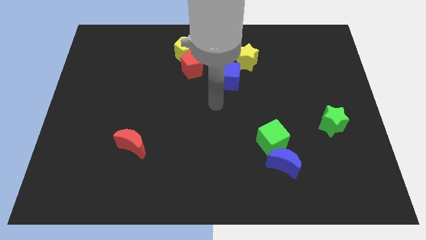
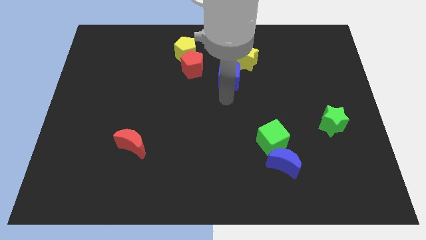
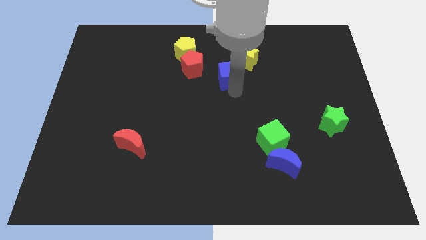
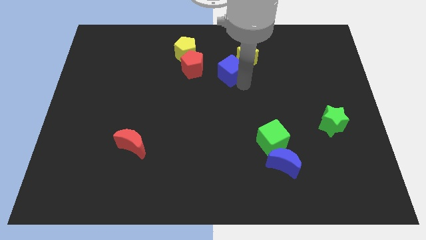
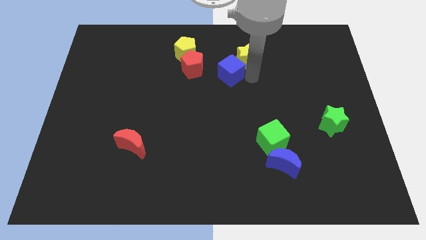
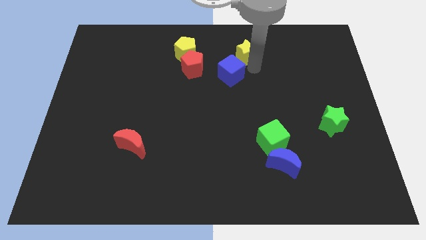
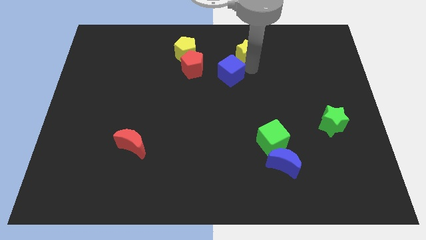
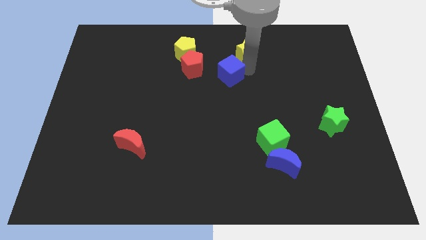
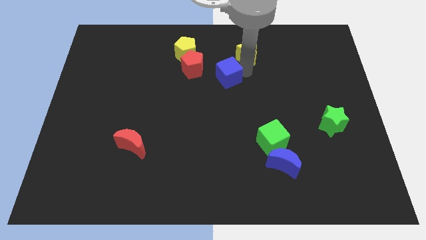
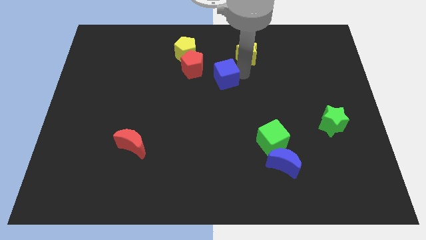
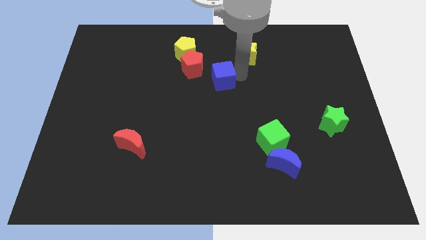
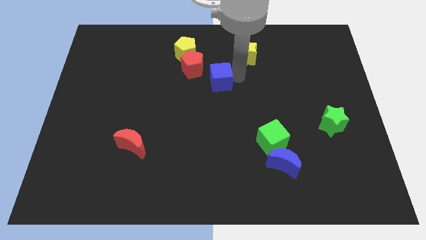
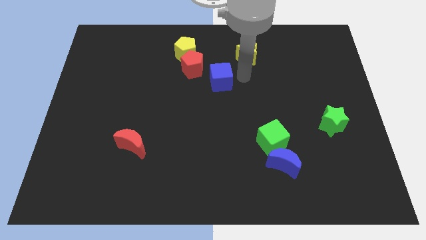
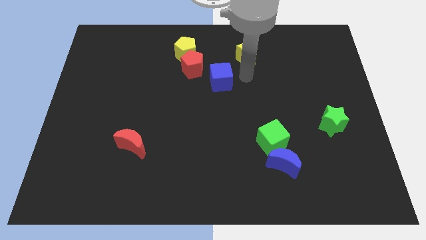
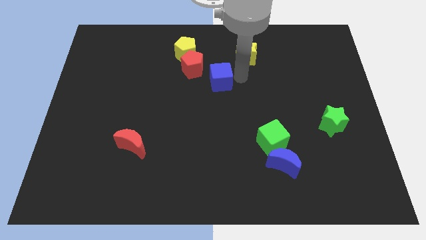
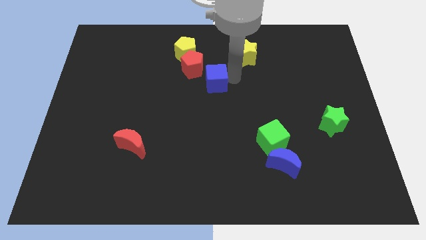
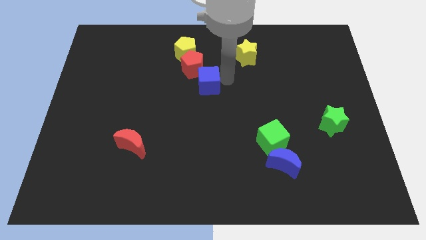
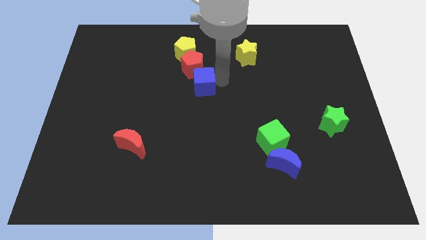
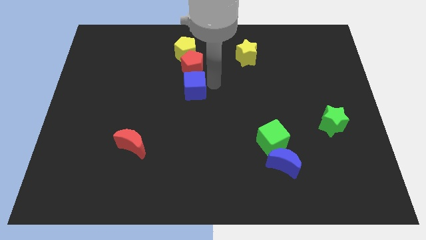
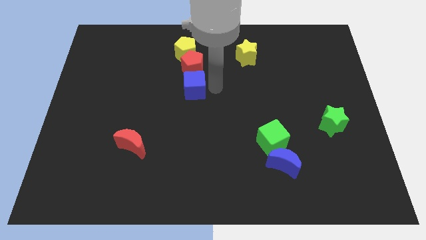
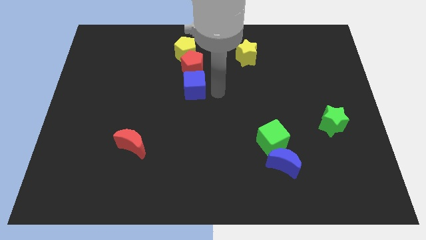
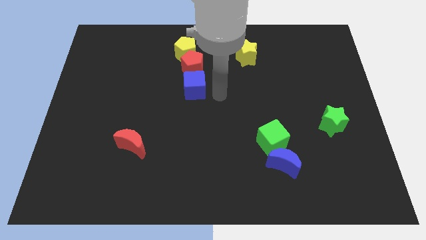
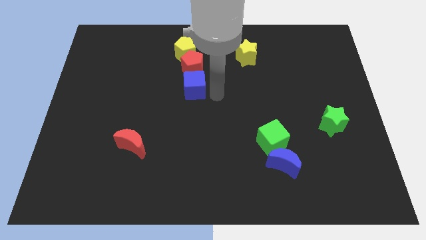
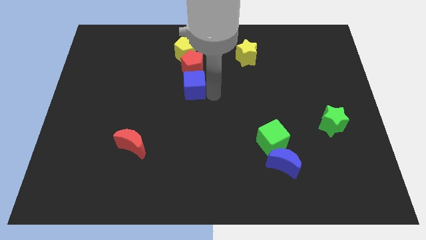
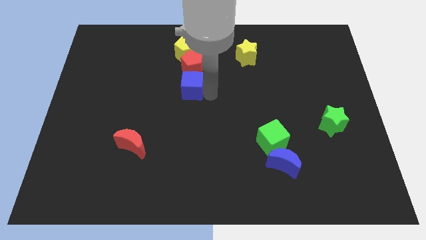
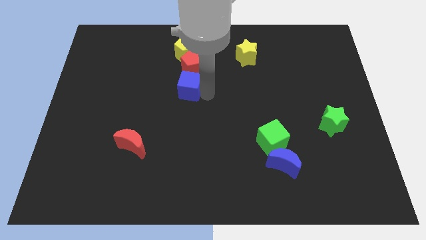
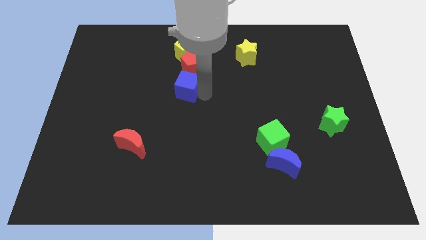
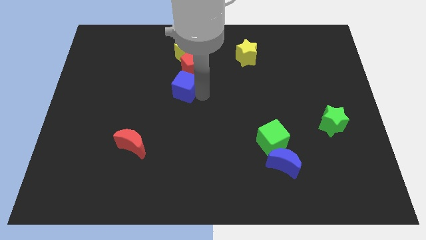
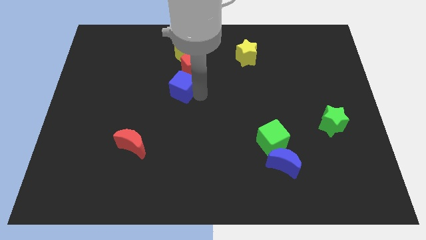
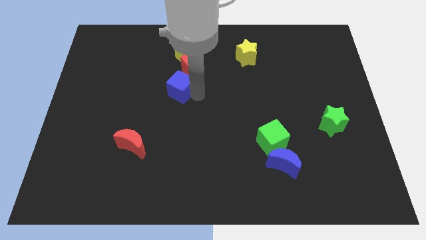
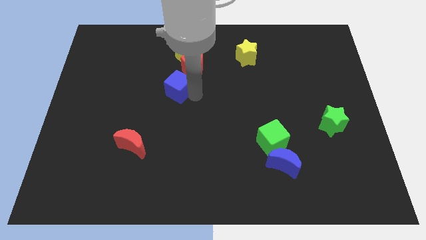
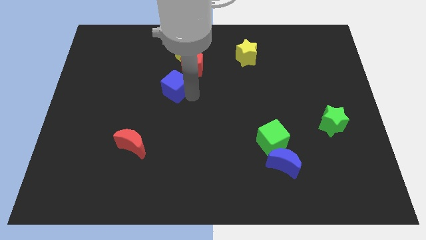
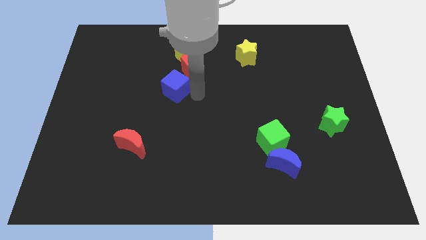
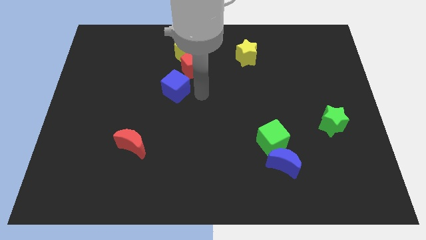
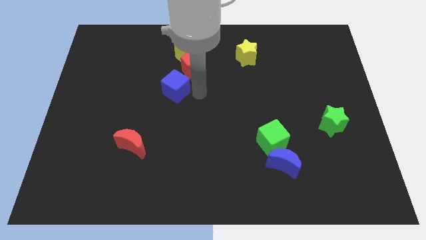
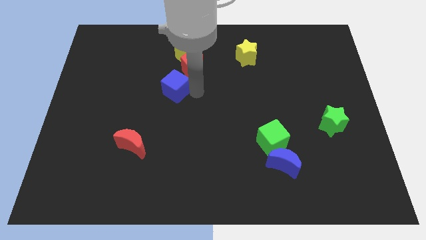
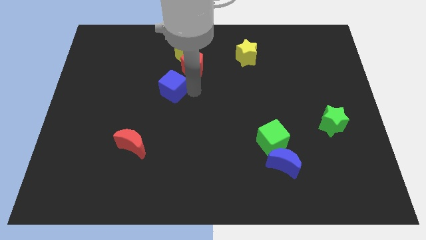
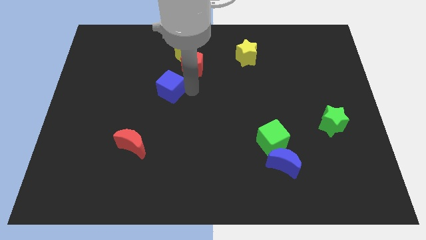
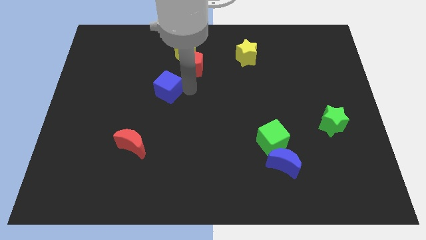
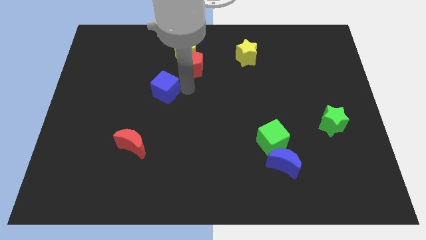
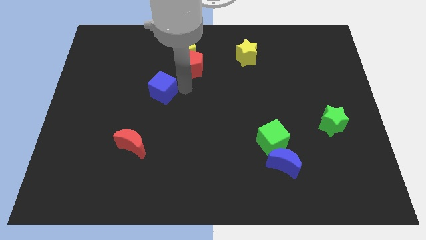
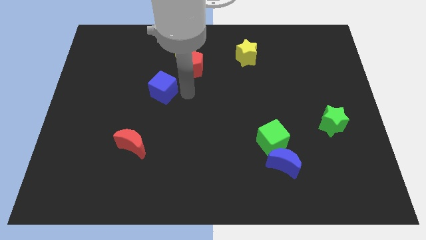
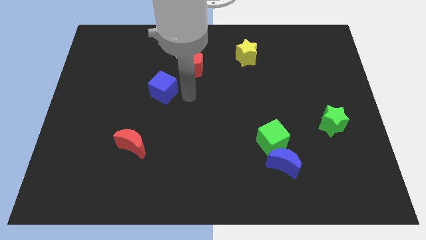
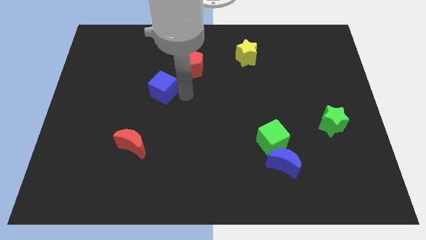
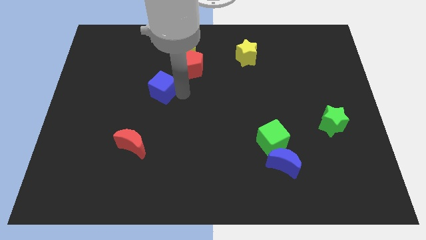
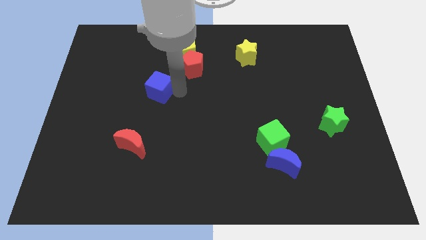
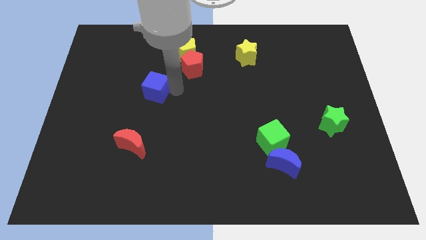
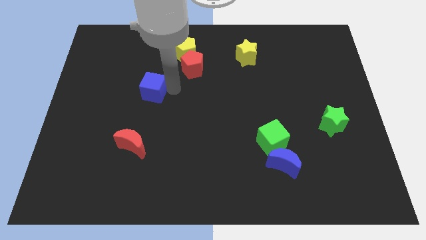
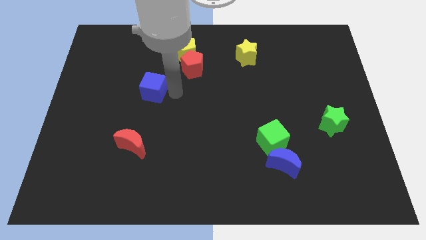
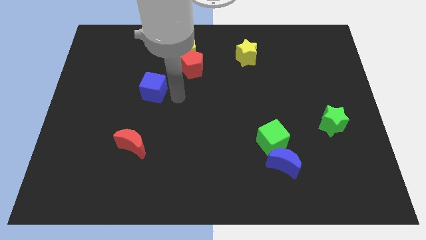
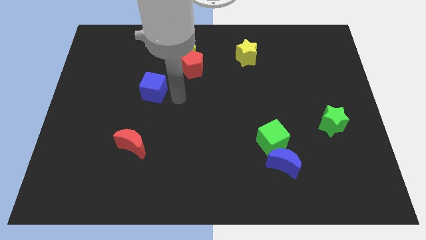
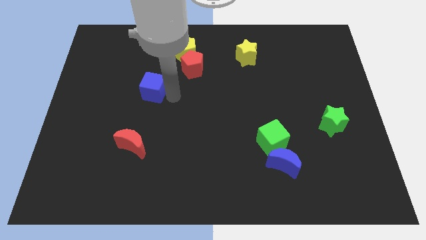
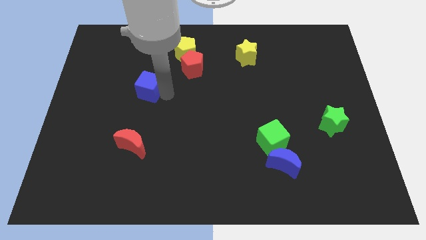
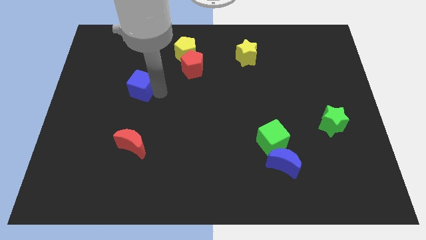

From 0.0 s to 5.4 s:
move the blue cube to the left

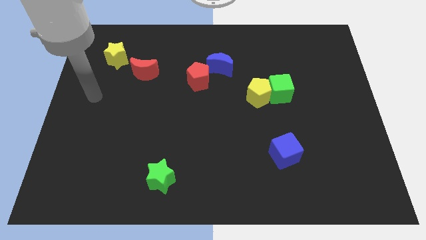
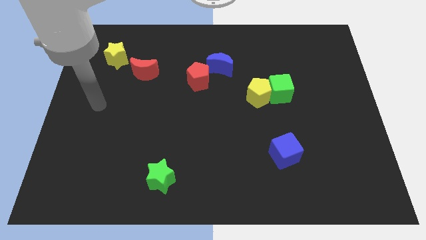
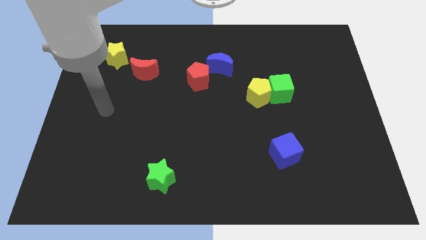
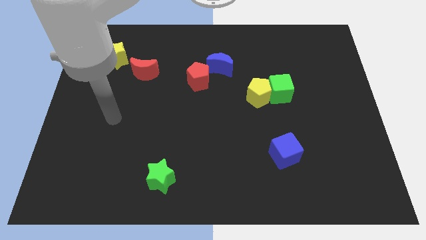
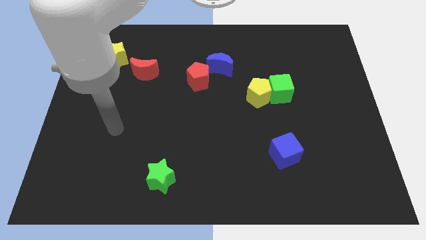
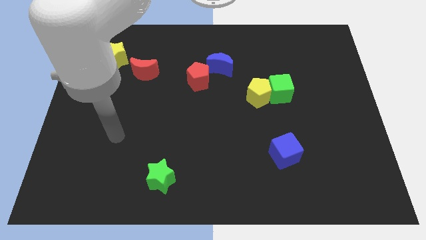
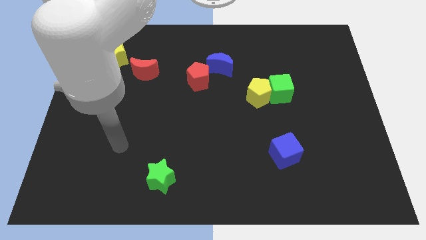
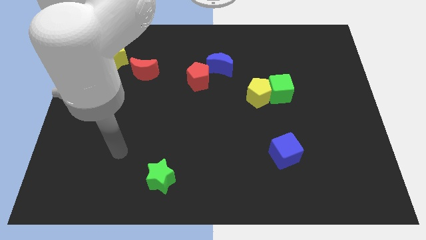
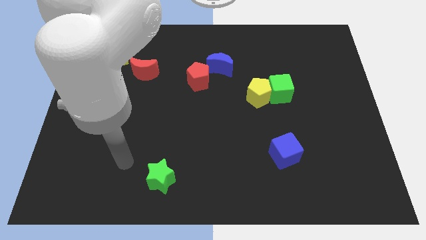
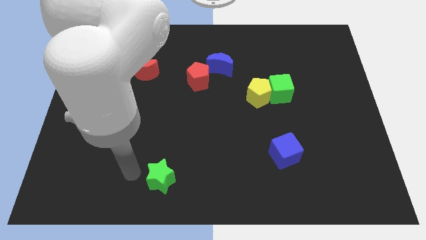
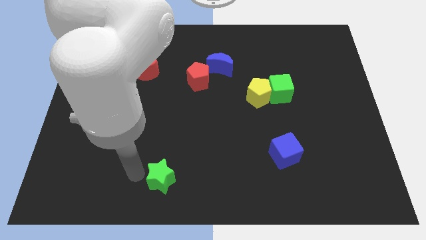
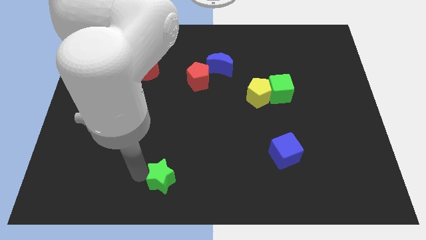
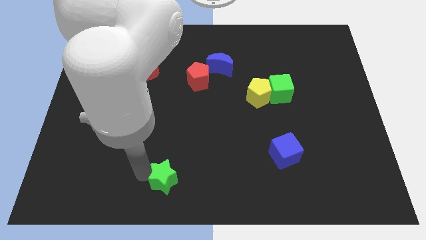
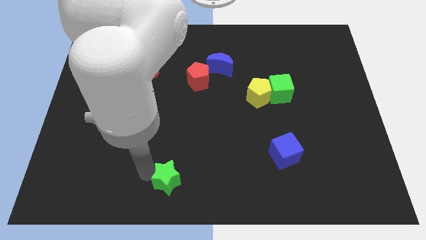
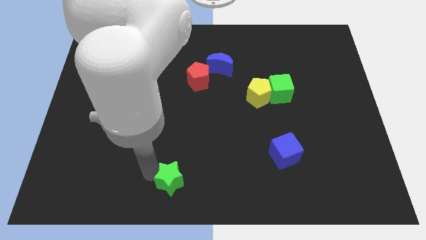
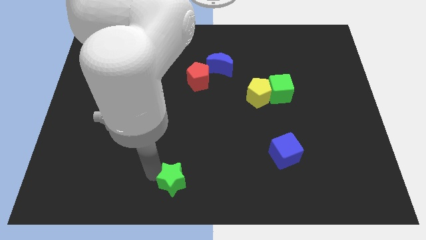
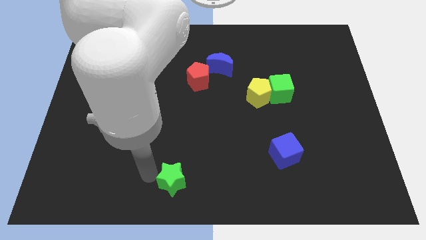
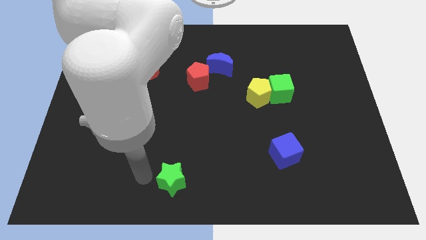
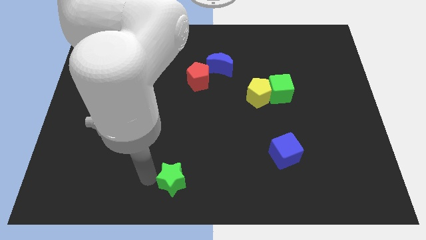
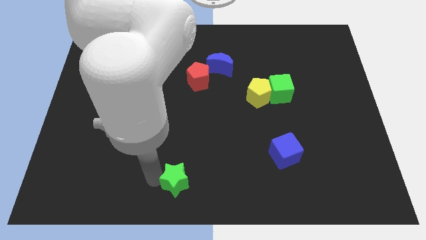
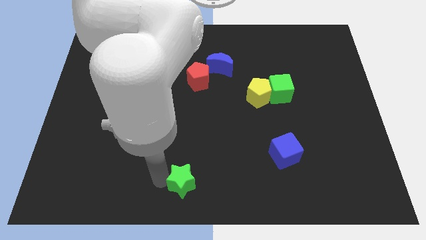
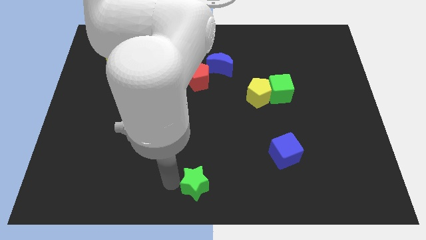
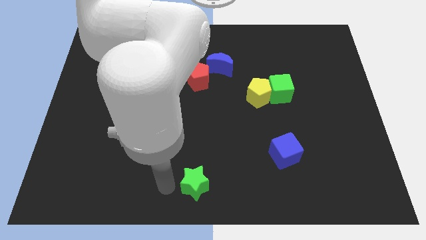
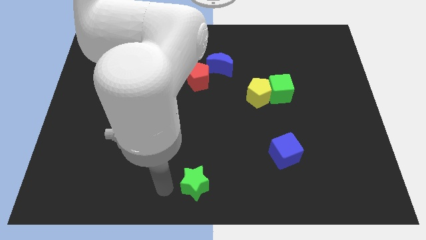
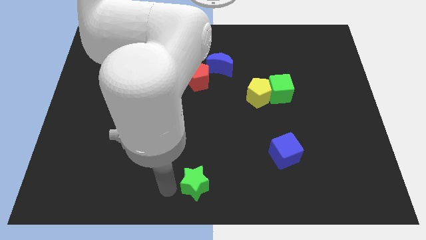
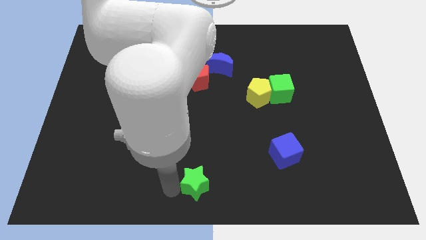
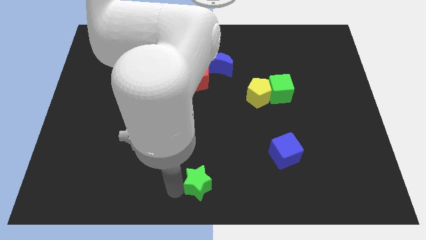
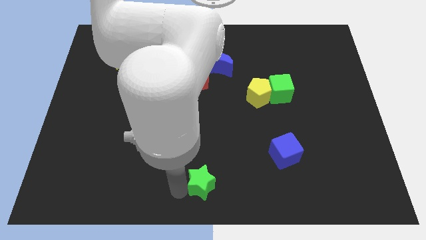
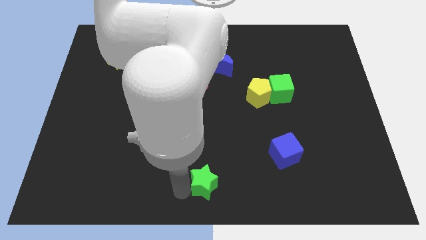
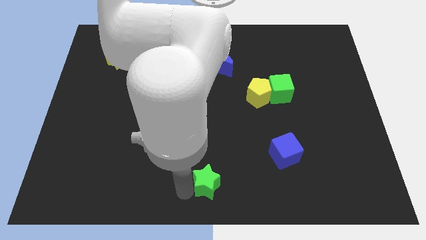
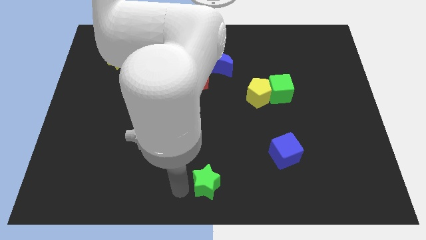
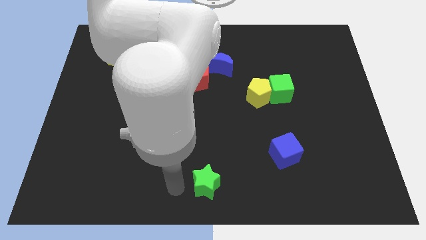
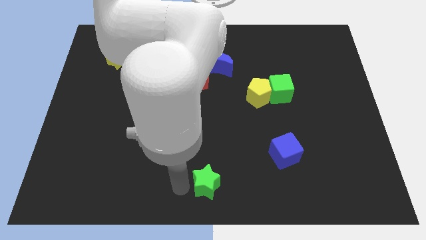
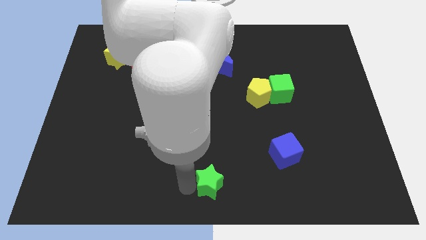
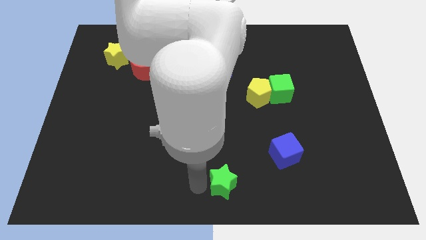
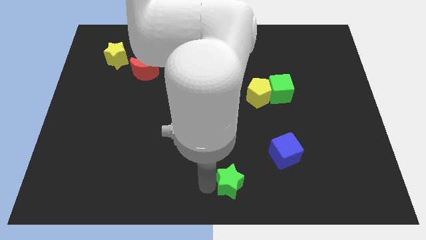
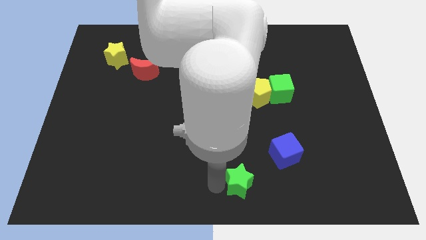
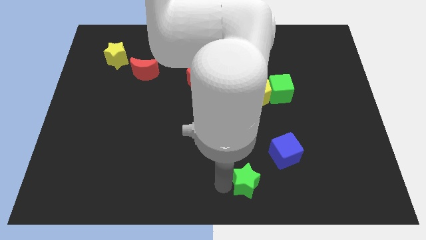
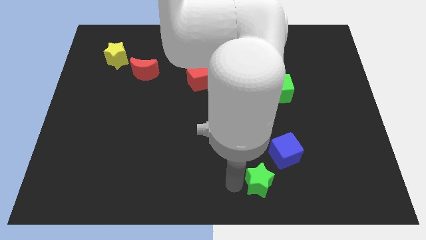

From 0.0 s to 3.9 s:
push the green star to the right
